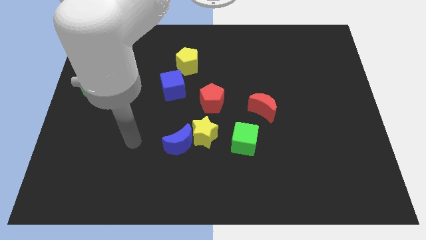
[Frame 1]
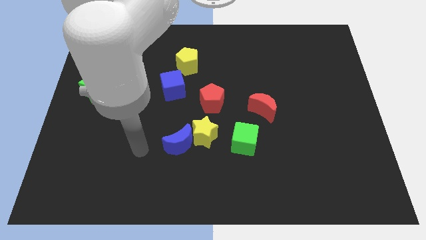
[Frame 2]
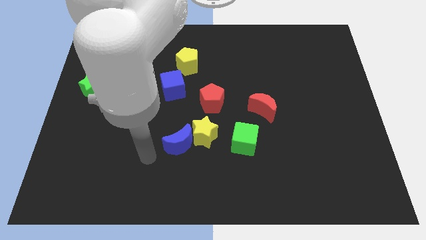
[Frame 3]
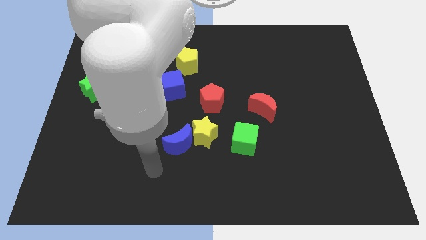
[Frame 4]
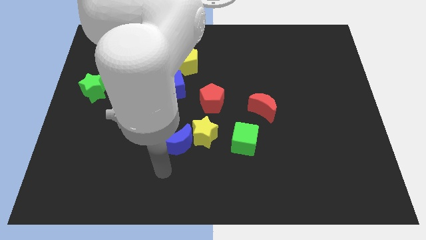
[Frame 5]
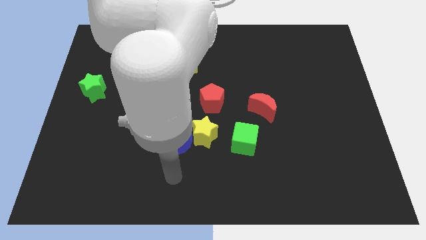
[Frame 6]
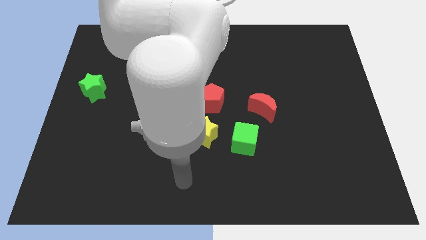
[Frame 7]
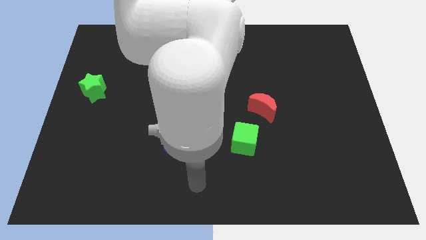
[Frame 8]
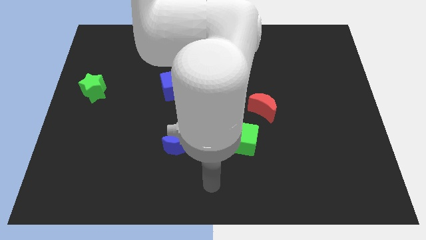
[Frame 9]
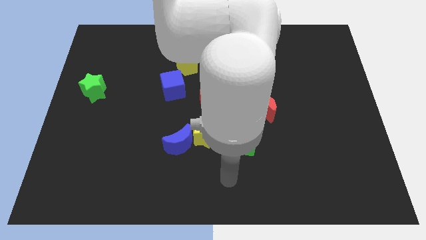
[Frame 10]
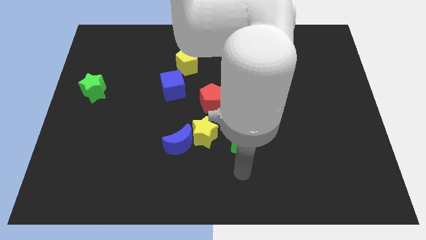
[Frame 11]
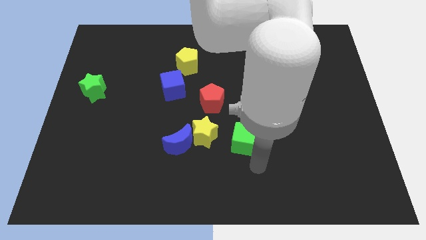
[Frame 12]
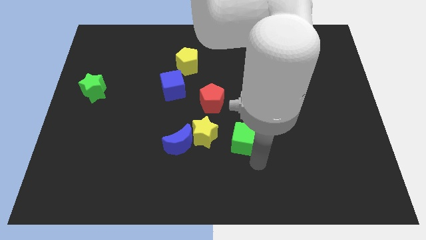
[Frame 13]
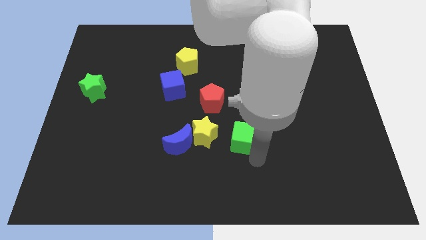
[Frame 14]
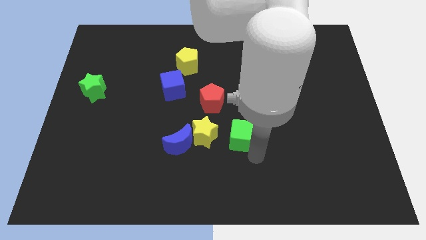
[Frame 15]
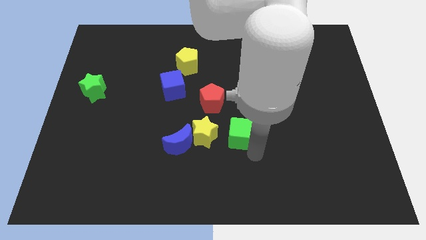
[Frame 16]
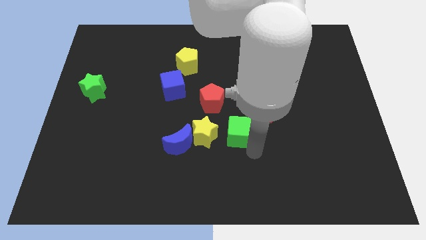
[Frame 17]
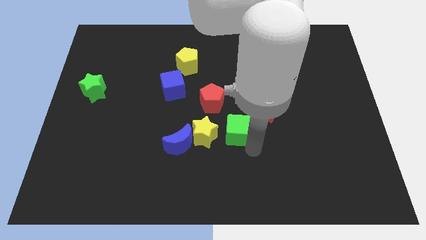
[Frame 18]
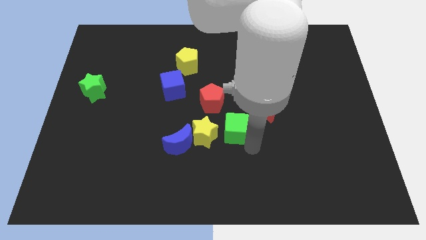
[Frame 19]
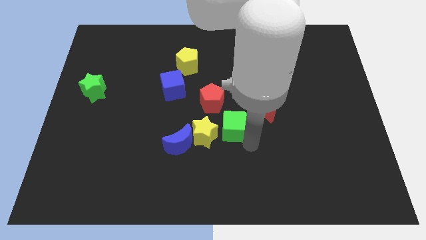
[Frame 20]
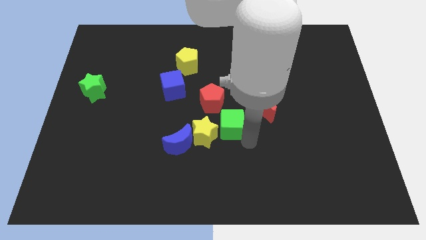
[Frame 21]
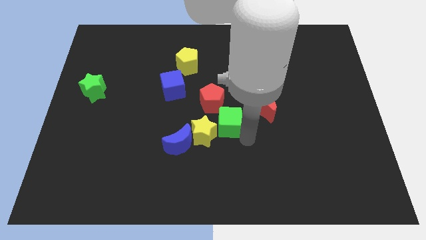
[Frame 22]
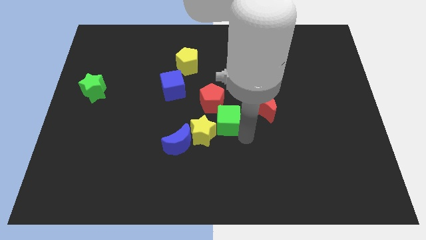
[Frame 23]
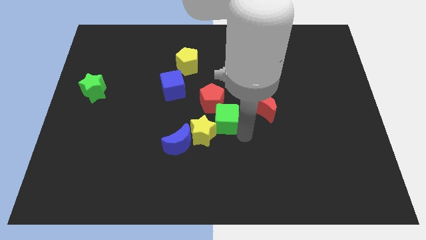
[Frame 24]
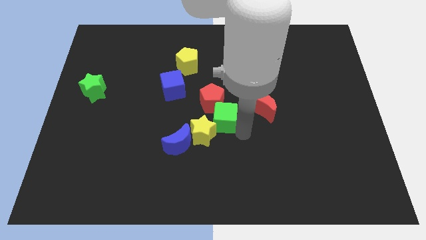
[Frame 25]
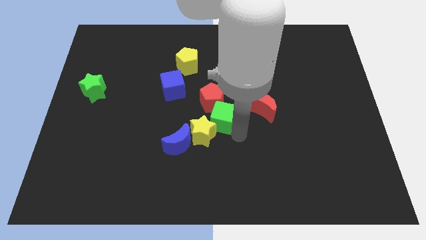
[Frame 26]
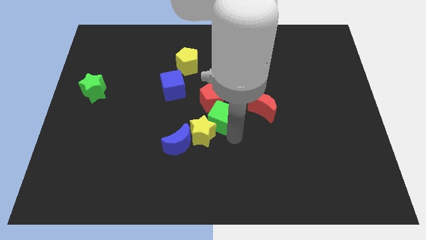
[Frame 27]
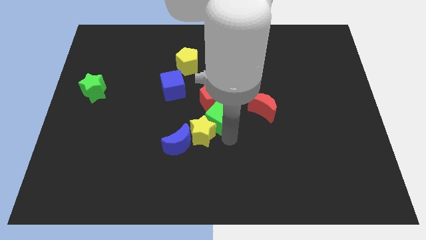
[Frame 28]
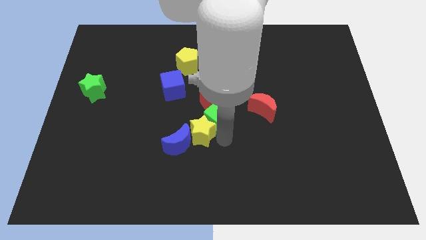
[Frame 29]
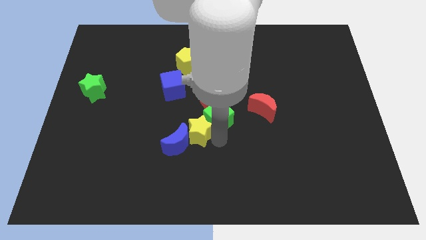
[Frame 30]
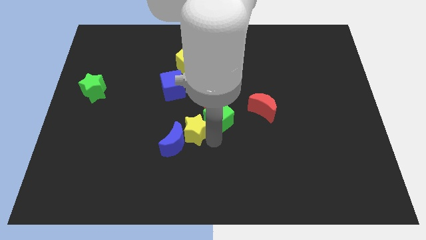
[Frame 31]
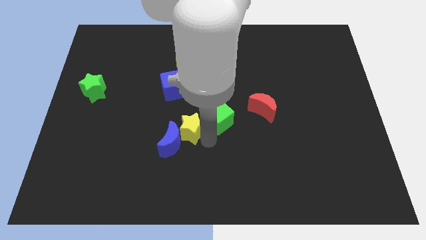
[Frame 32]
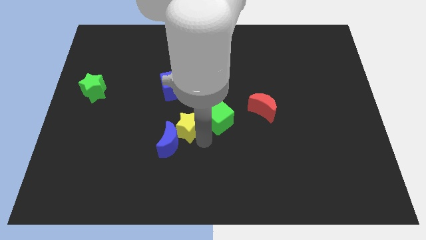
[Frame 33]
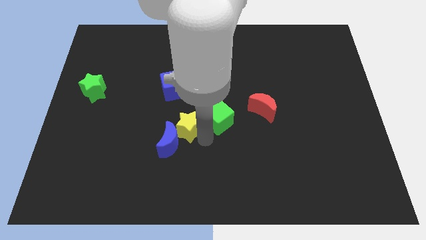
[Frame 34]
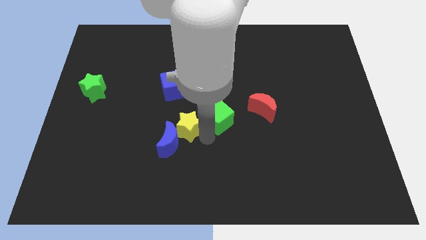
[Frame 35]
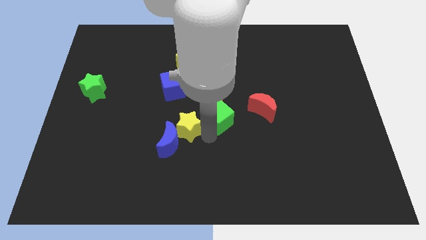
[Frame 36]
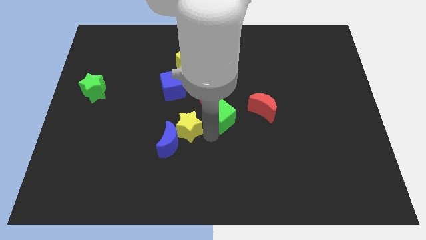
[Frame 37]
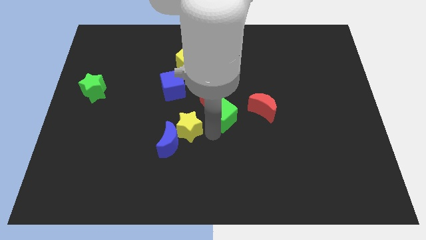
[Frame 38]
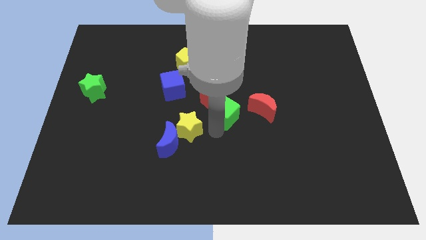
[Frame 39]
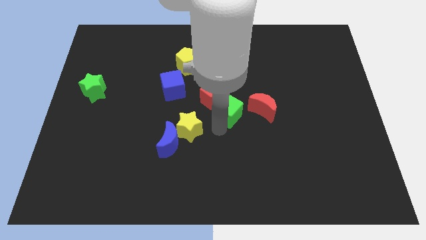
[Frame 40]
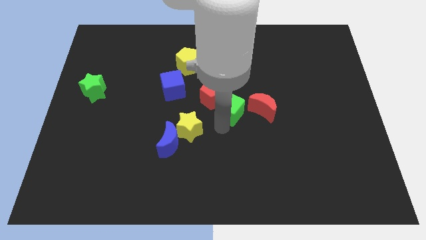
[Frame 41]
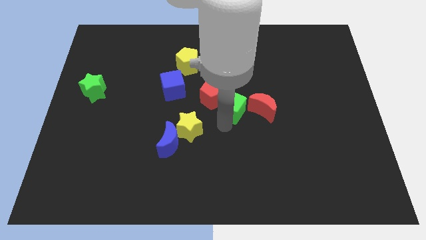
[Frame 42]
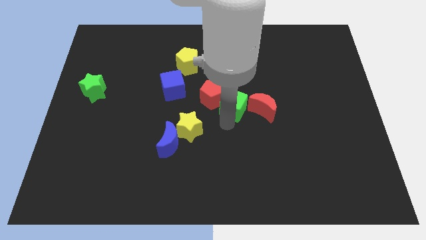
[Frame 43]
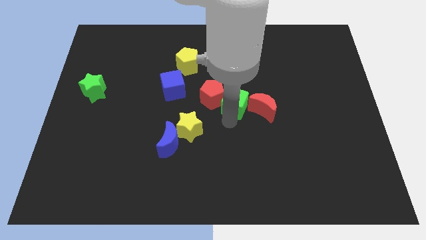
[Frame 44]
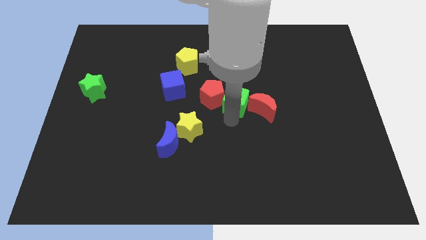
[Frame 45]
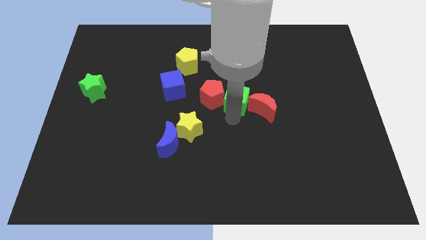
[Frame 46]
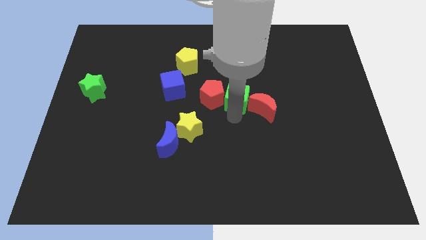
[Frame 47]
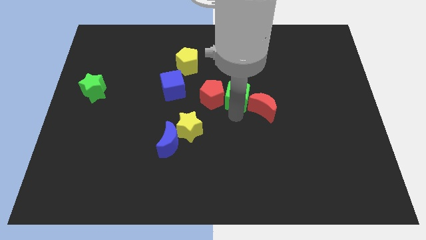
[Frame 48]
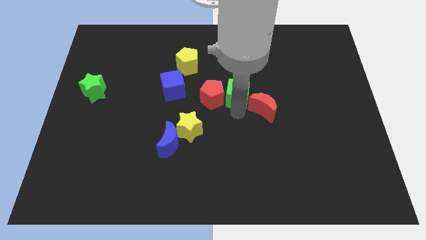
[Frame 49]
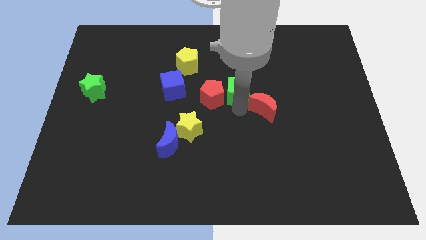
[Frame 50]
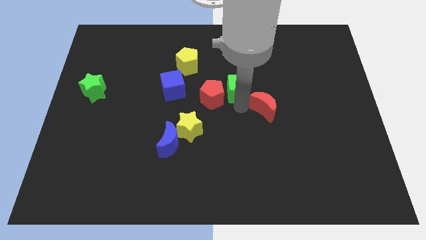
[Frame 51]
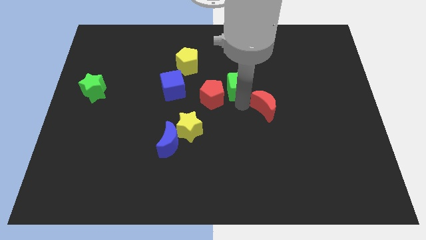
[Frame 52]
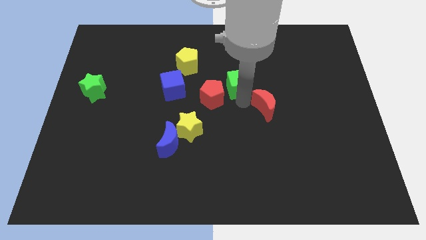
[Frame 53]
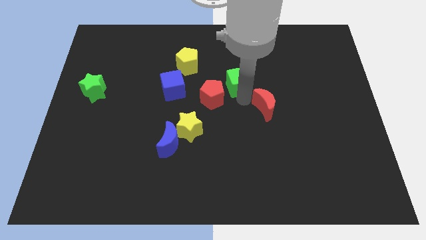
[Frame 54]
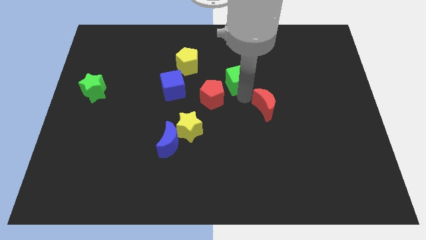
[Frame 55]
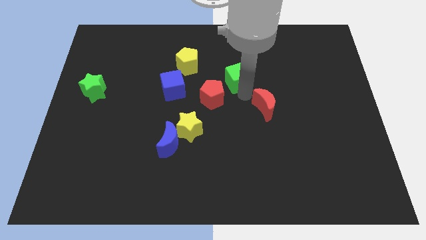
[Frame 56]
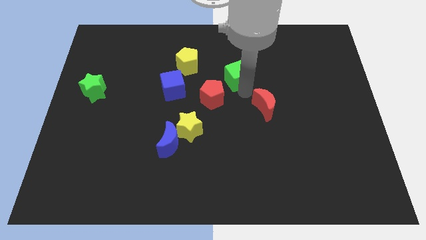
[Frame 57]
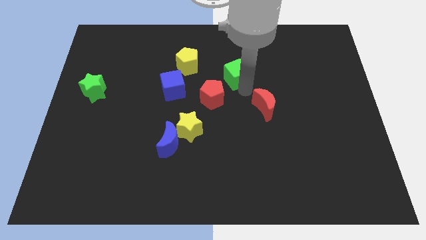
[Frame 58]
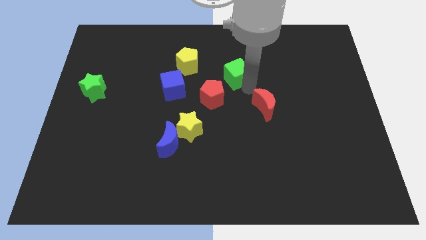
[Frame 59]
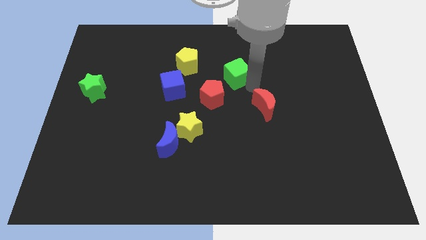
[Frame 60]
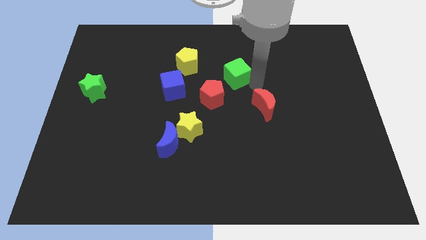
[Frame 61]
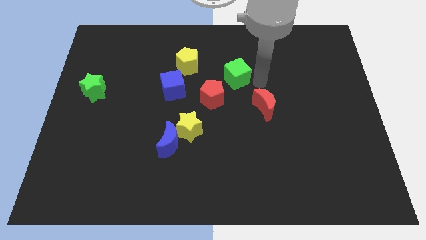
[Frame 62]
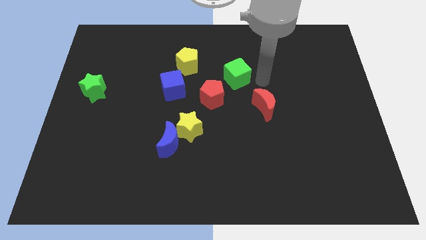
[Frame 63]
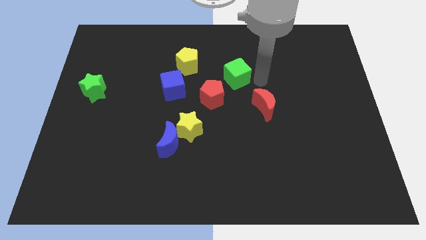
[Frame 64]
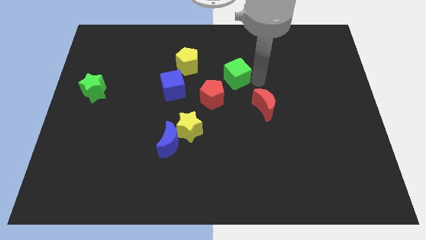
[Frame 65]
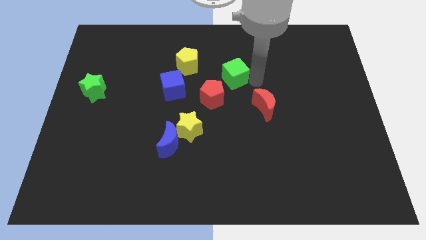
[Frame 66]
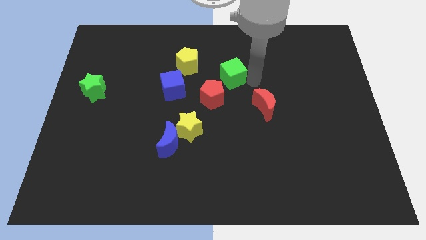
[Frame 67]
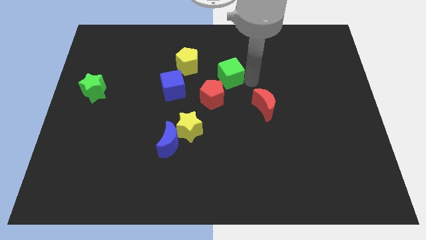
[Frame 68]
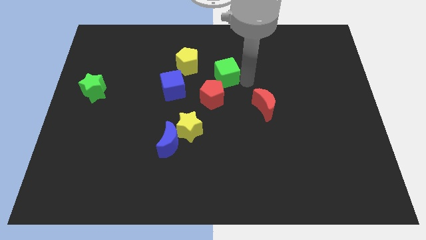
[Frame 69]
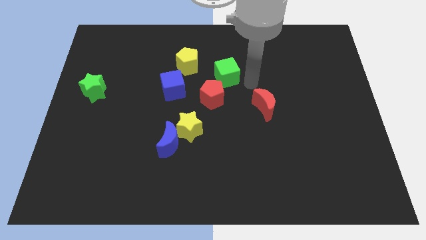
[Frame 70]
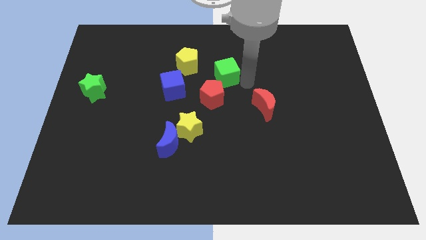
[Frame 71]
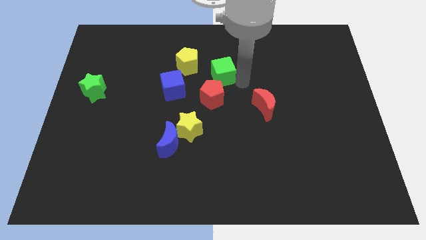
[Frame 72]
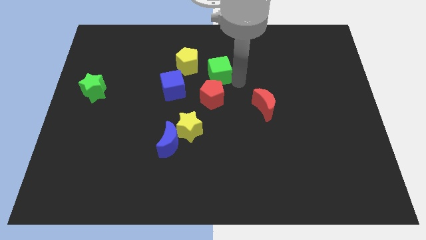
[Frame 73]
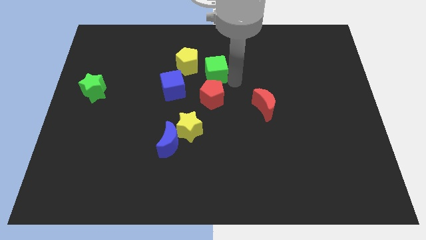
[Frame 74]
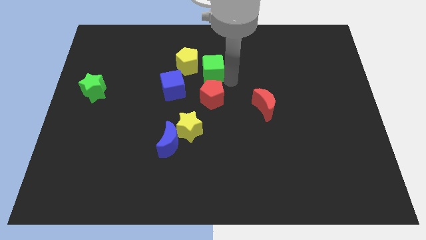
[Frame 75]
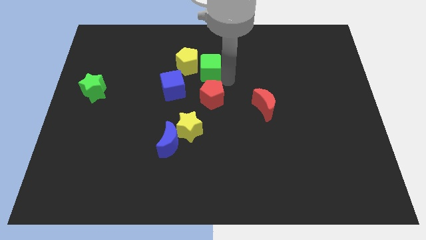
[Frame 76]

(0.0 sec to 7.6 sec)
slide the green cube next to the yellow pentagon
